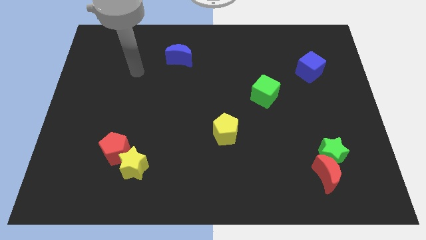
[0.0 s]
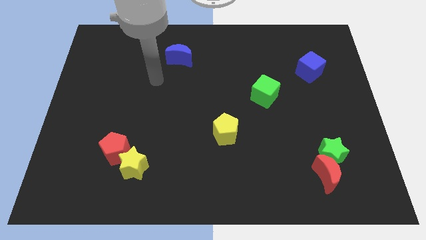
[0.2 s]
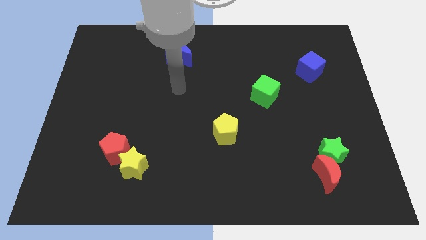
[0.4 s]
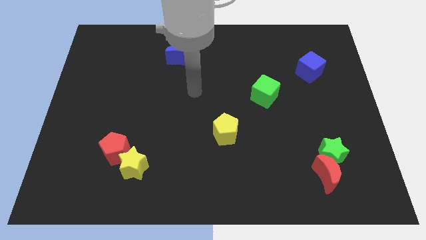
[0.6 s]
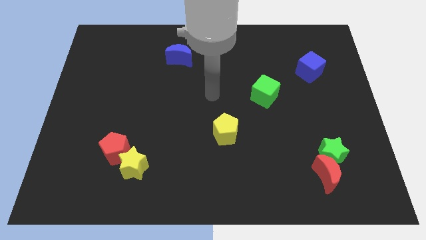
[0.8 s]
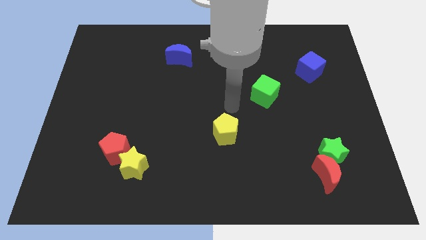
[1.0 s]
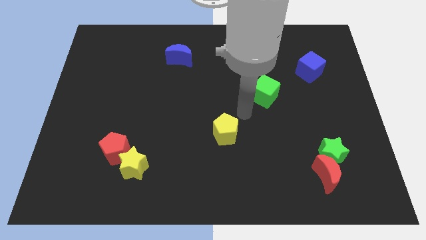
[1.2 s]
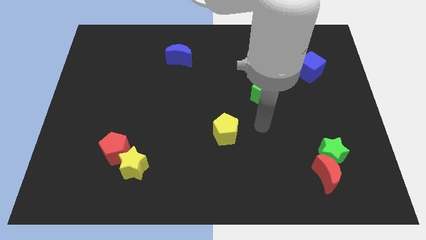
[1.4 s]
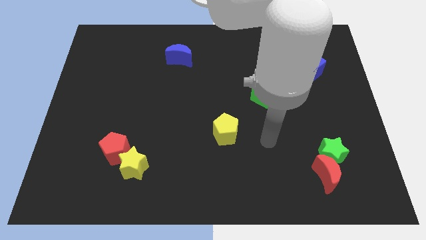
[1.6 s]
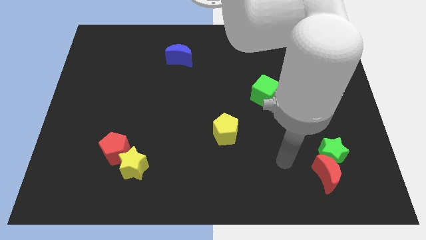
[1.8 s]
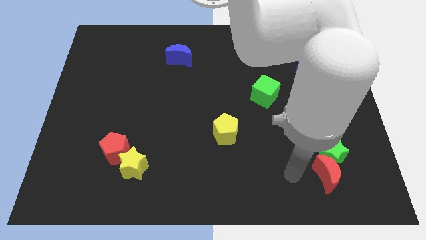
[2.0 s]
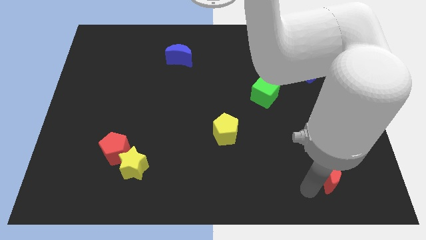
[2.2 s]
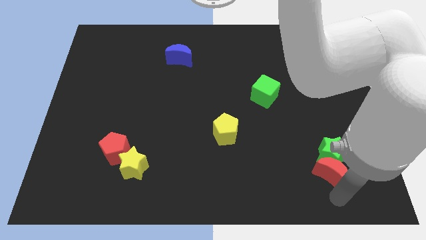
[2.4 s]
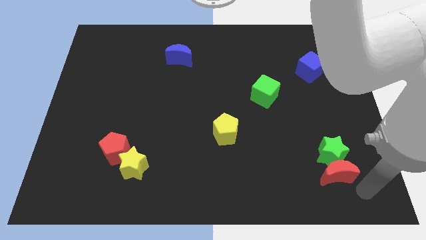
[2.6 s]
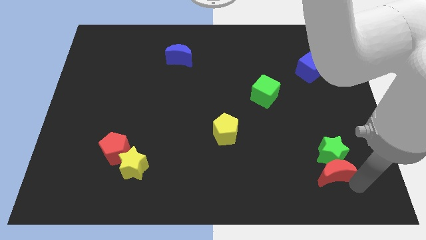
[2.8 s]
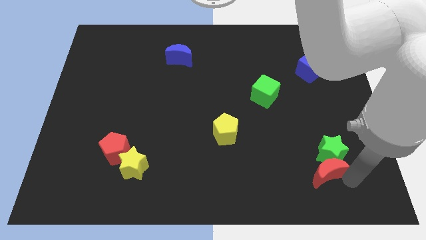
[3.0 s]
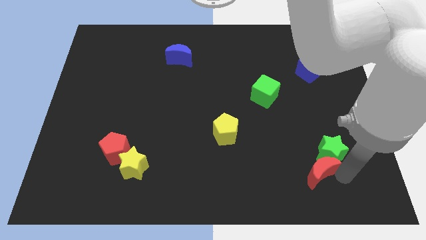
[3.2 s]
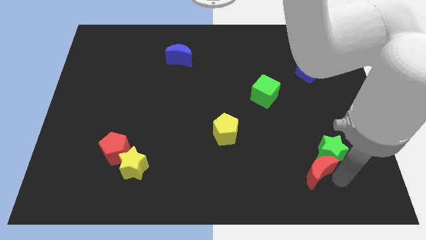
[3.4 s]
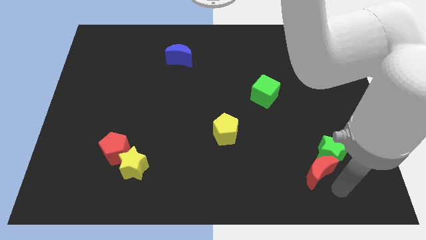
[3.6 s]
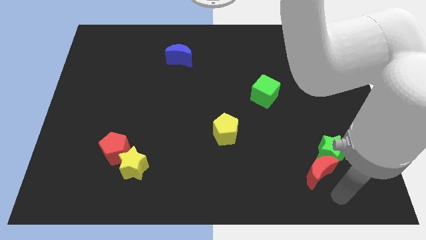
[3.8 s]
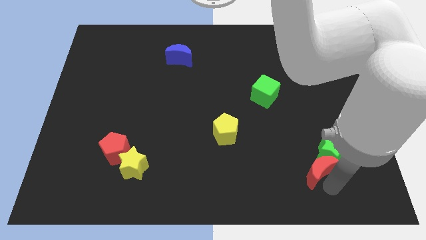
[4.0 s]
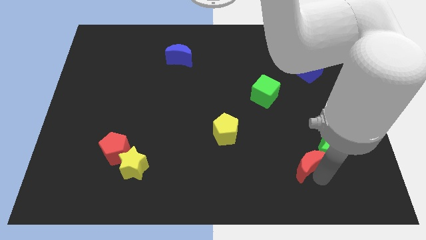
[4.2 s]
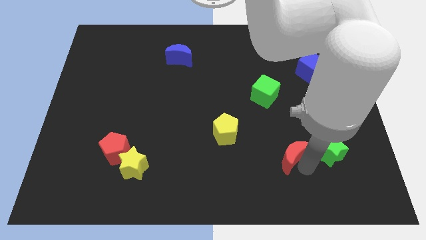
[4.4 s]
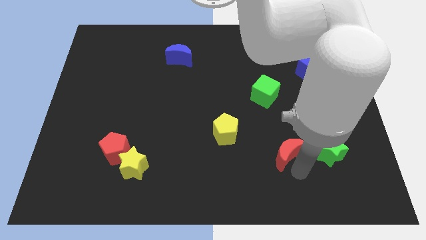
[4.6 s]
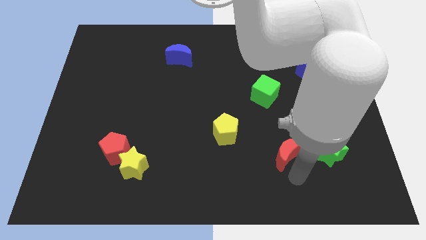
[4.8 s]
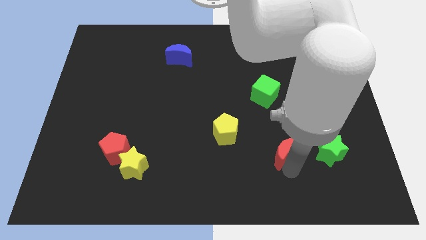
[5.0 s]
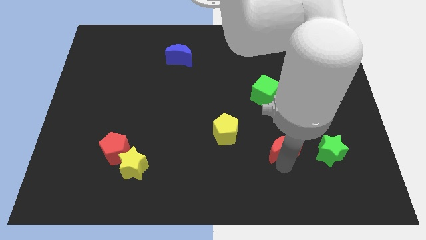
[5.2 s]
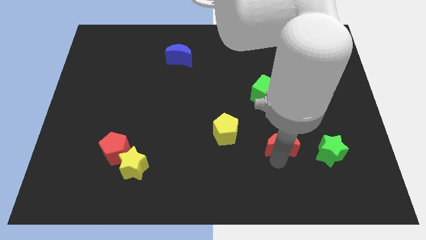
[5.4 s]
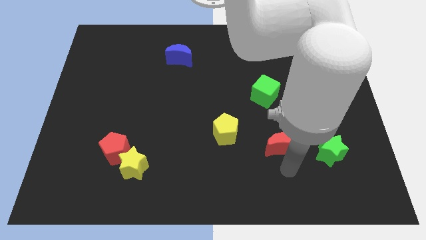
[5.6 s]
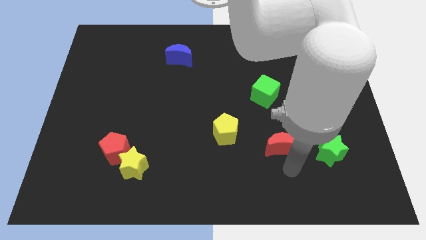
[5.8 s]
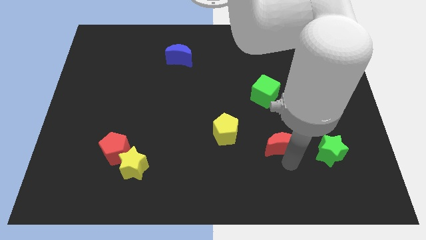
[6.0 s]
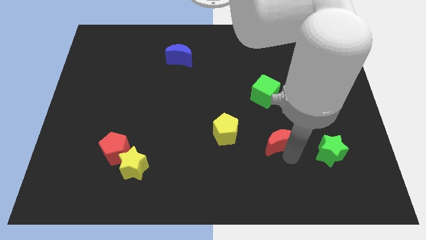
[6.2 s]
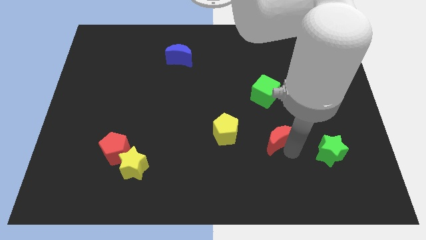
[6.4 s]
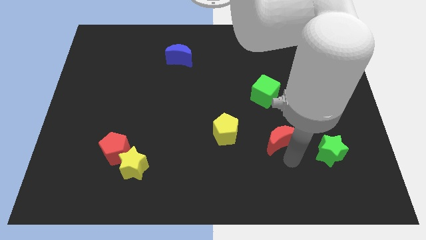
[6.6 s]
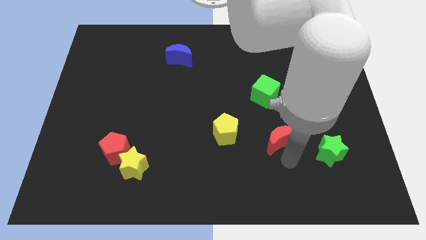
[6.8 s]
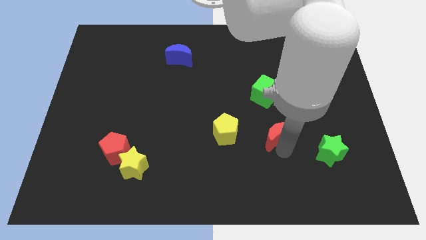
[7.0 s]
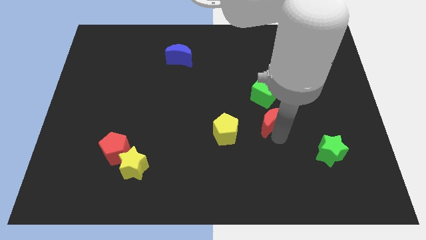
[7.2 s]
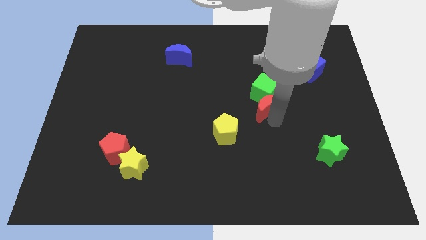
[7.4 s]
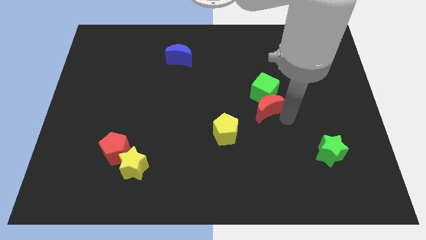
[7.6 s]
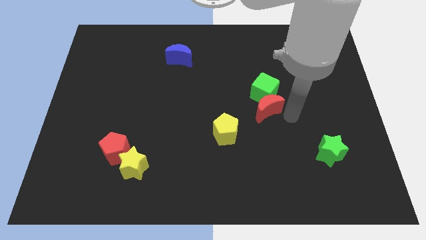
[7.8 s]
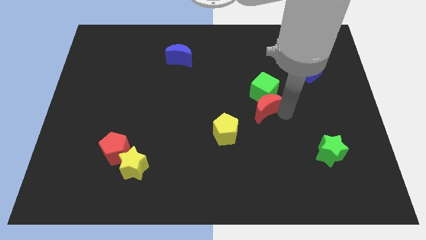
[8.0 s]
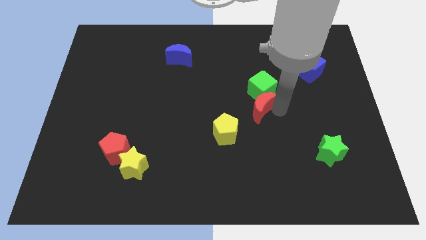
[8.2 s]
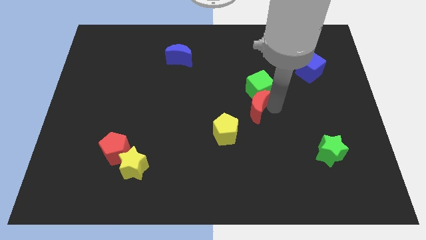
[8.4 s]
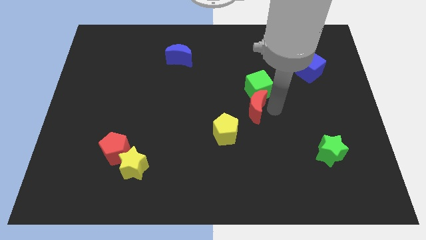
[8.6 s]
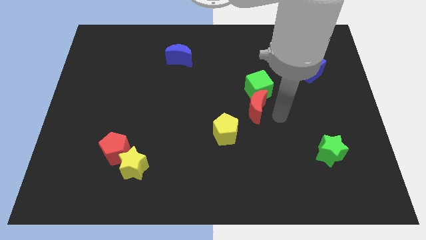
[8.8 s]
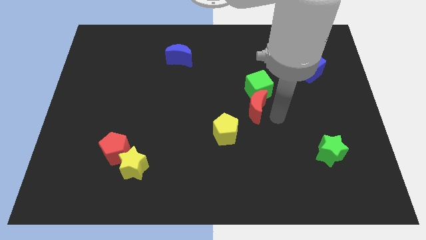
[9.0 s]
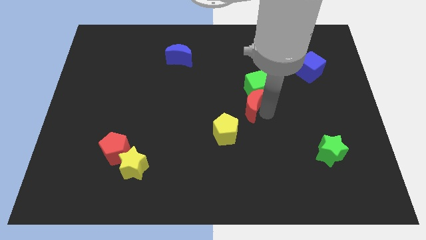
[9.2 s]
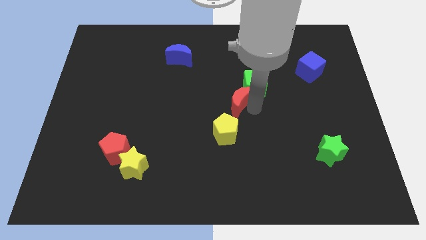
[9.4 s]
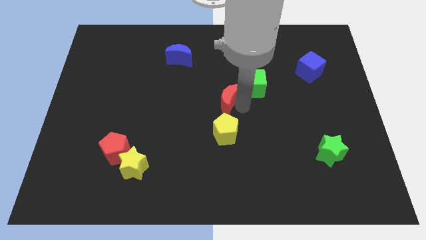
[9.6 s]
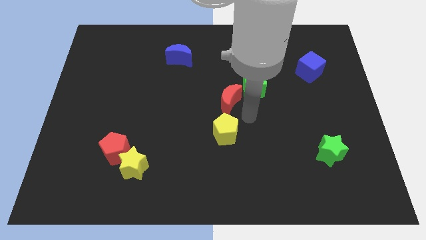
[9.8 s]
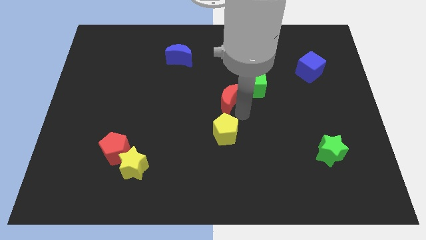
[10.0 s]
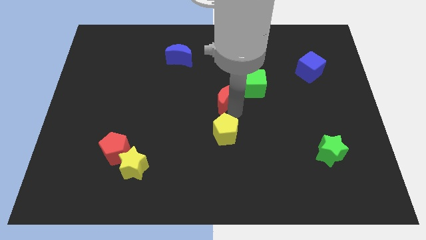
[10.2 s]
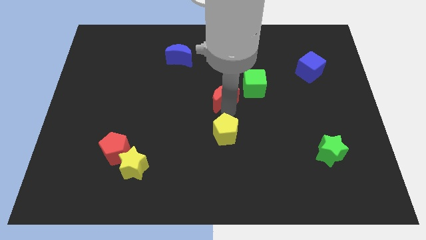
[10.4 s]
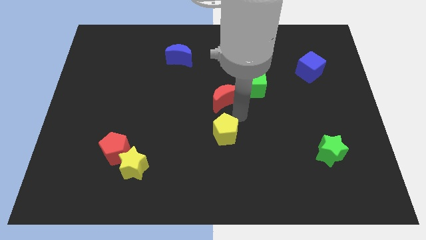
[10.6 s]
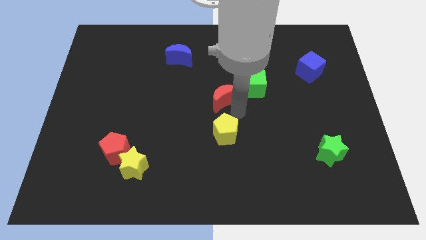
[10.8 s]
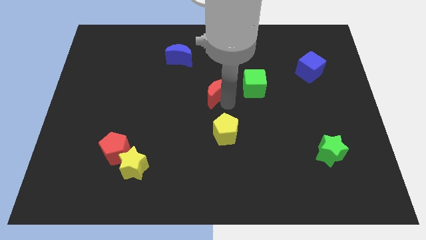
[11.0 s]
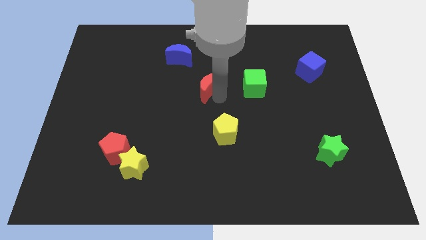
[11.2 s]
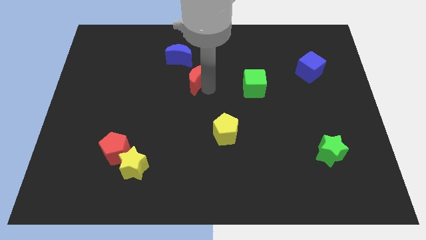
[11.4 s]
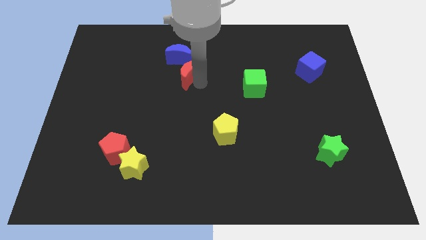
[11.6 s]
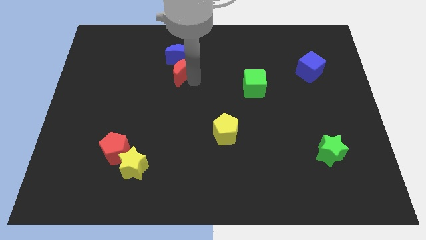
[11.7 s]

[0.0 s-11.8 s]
move the red moon next to the blue moon
